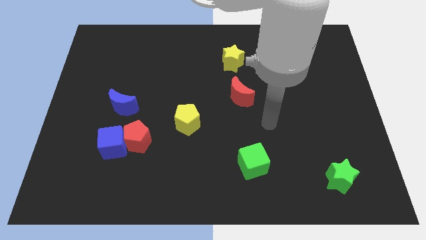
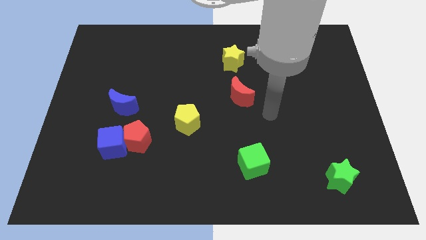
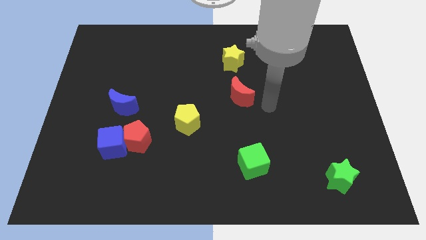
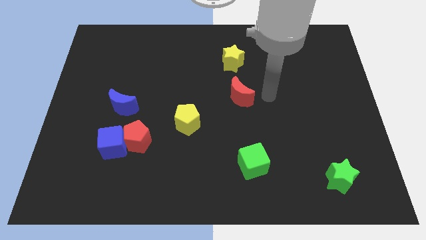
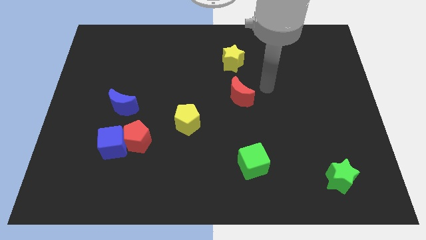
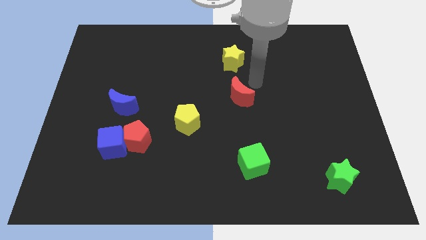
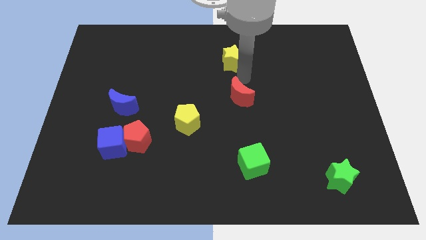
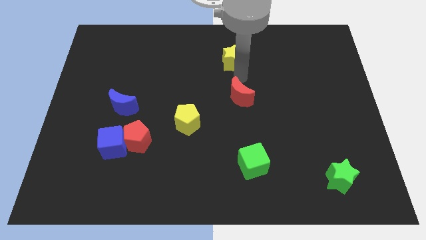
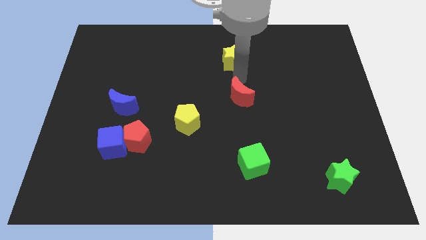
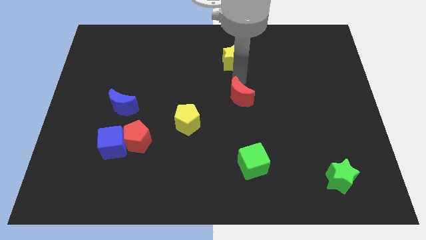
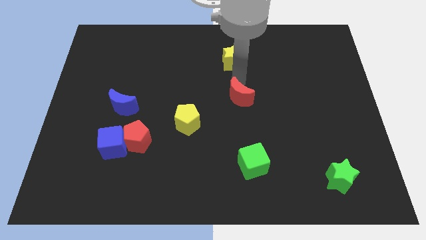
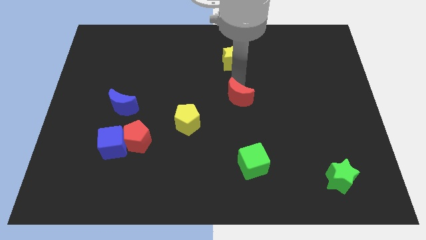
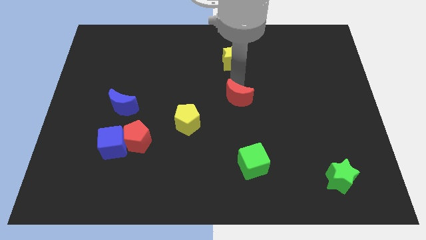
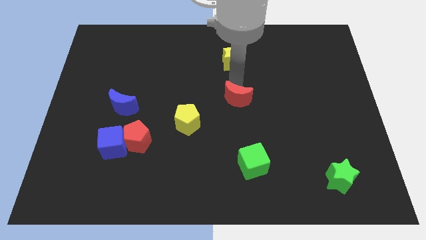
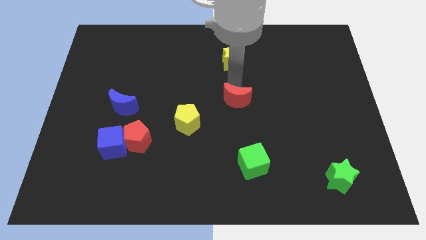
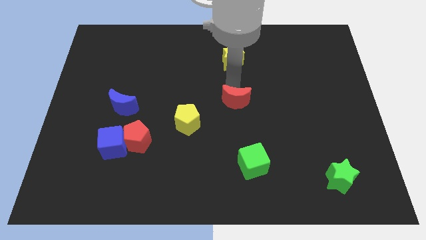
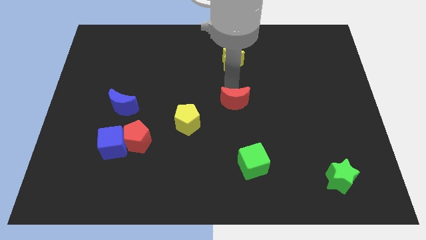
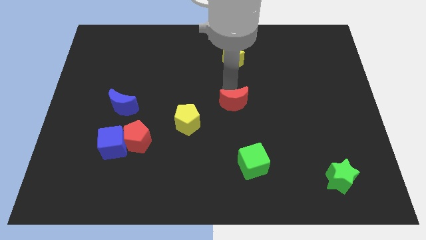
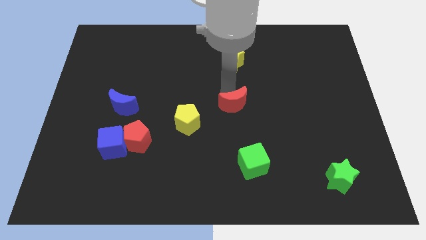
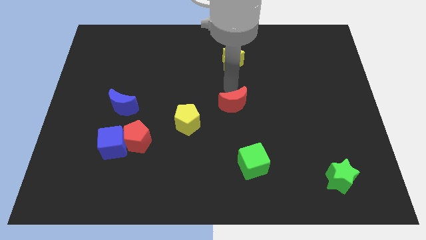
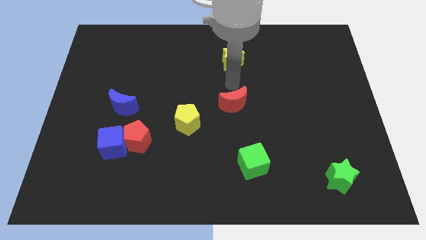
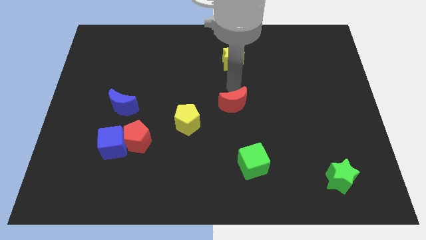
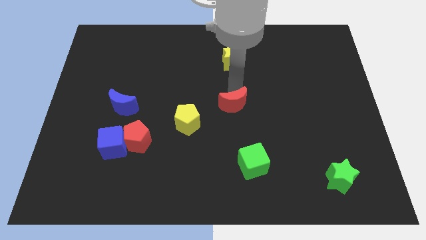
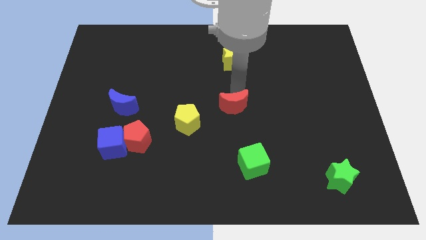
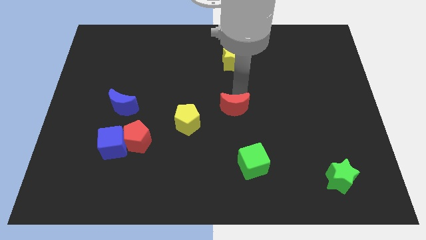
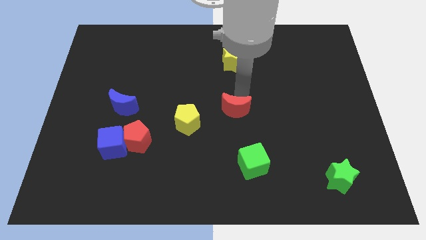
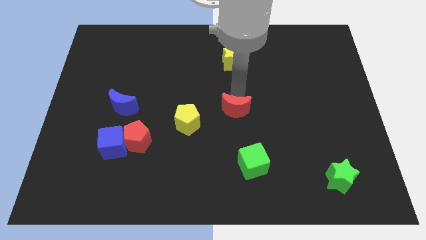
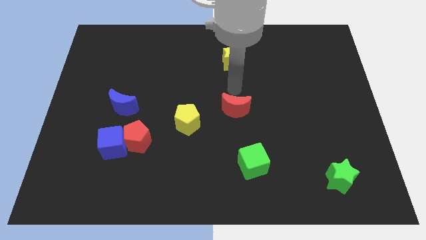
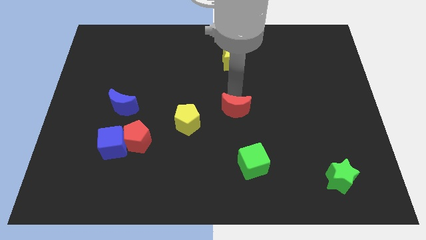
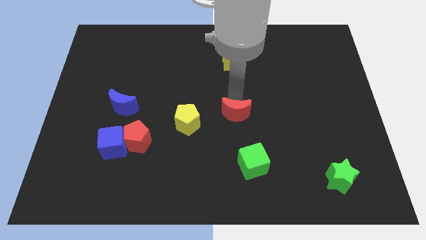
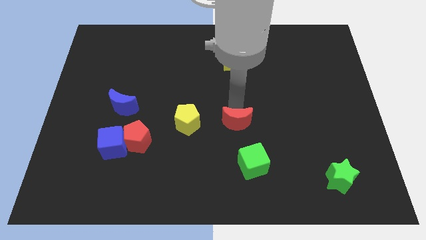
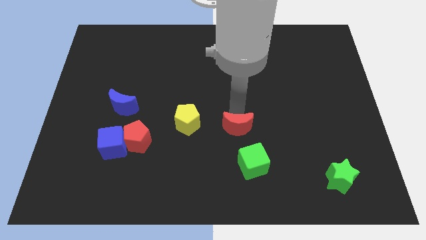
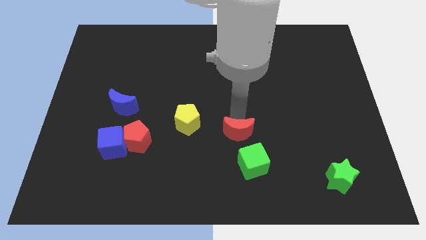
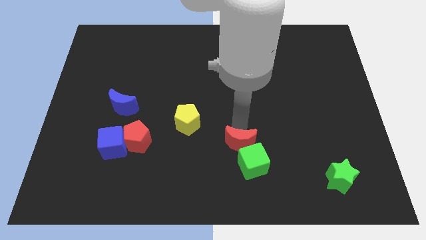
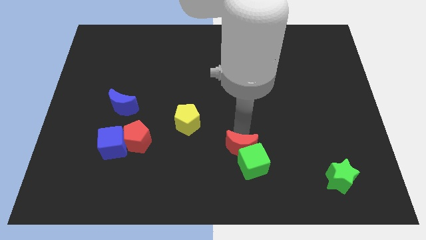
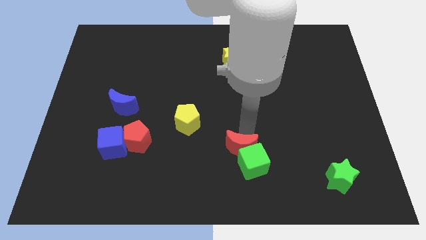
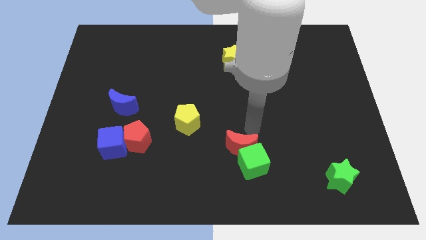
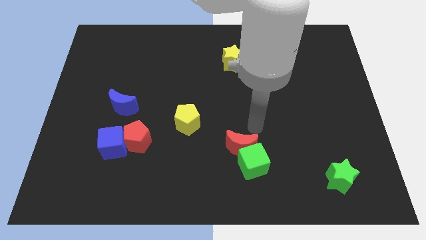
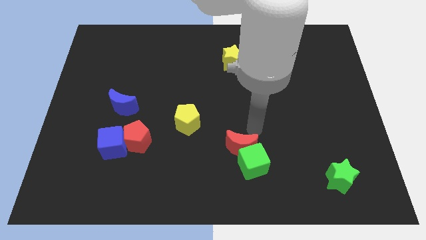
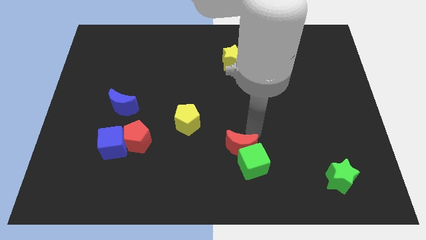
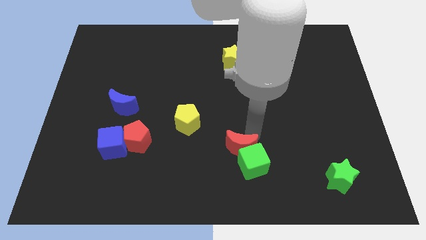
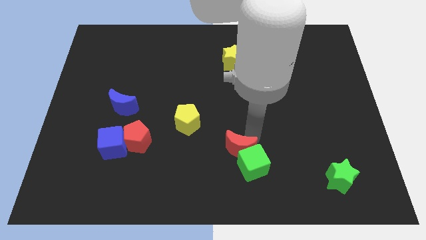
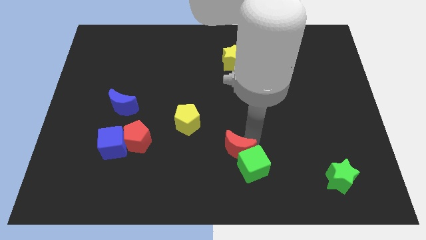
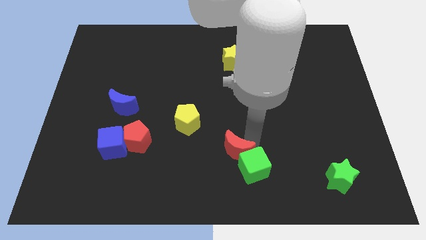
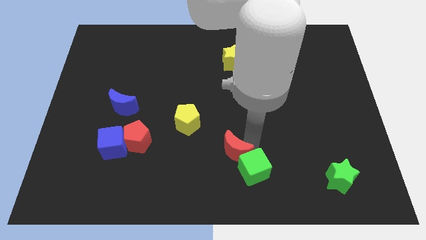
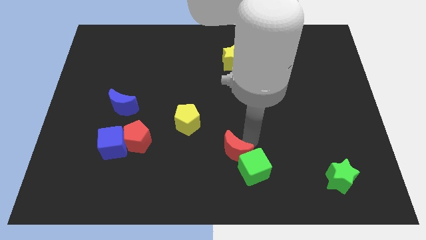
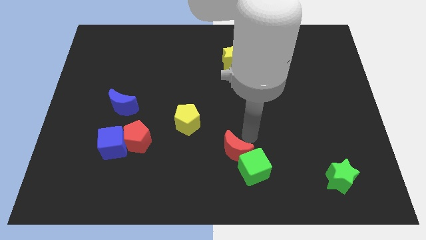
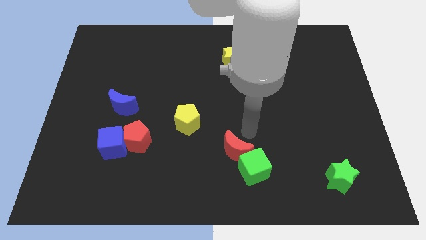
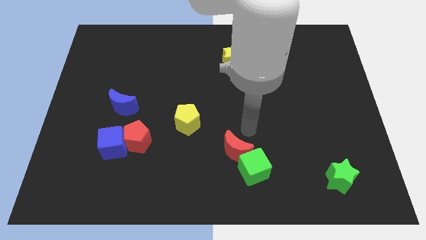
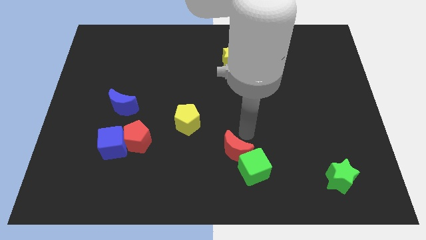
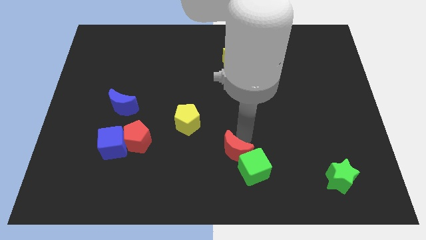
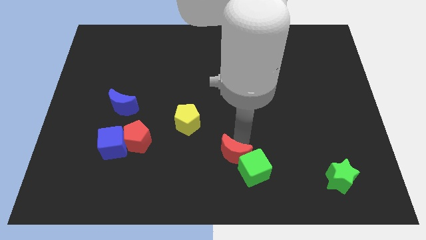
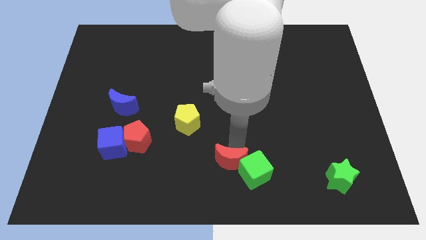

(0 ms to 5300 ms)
slide the red moon to the bottom

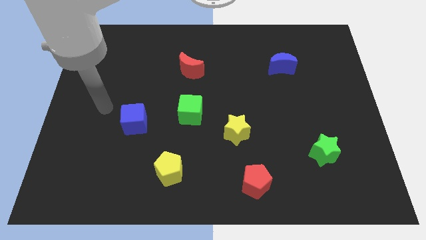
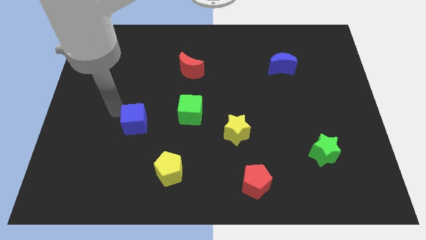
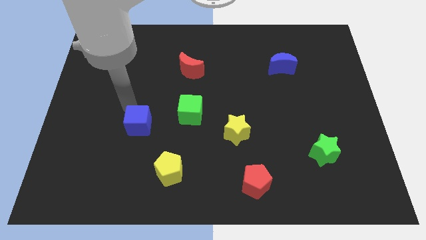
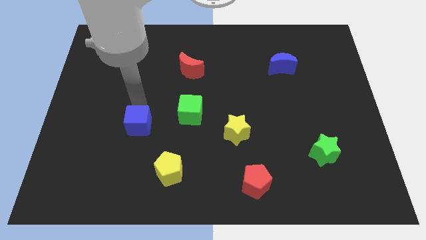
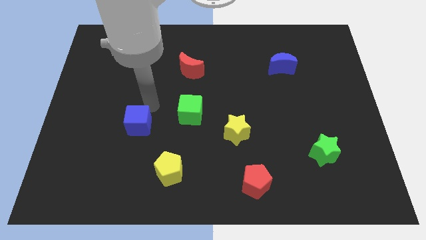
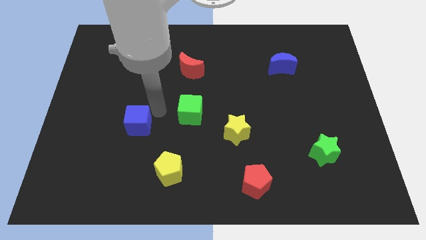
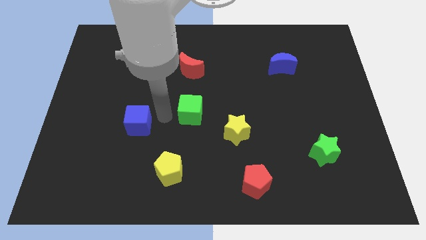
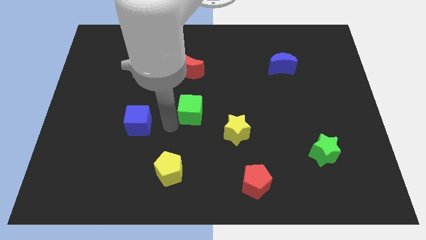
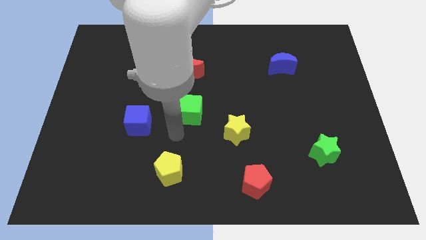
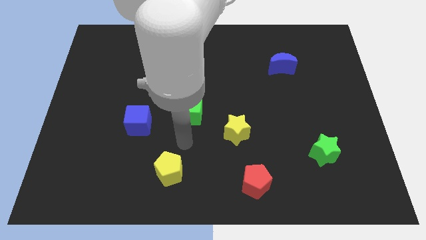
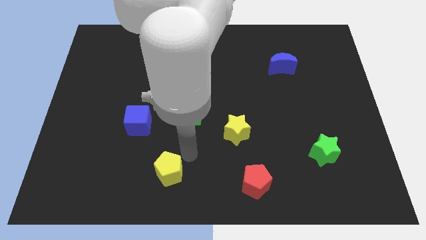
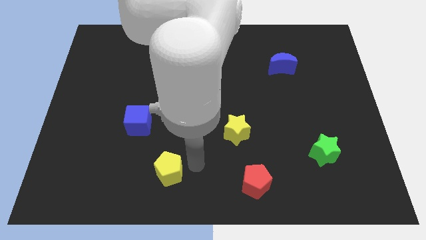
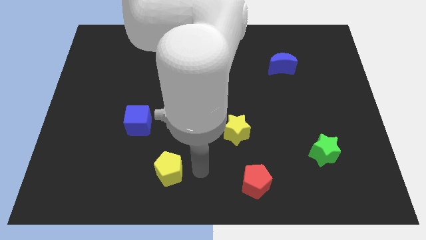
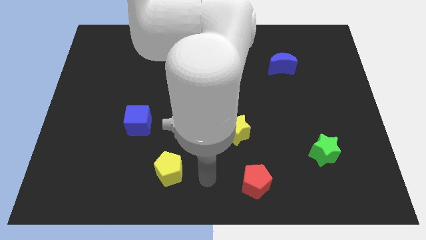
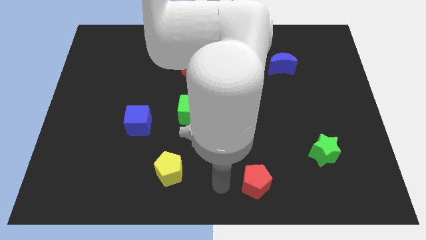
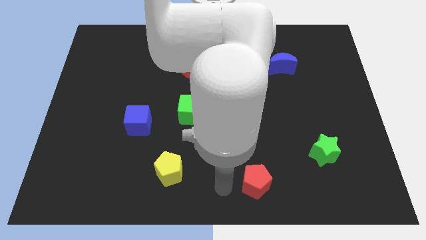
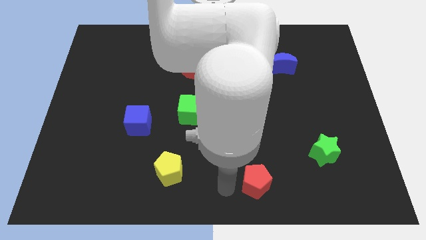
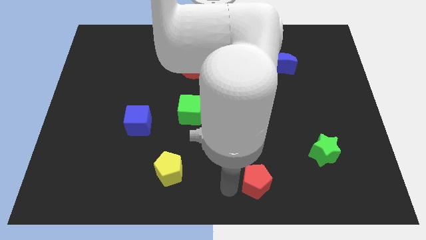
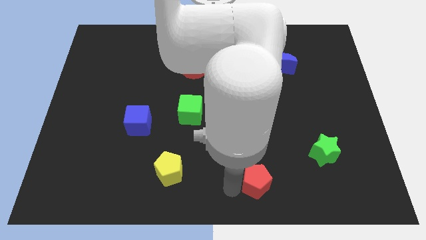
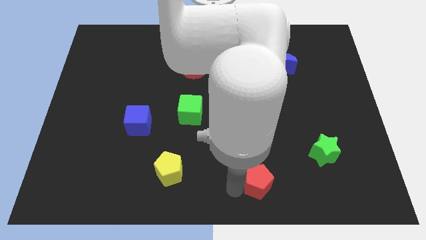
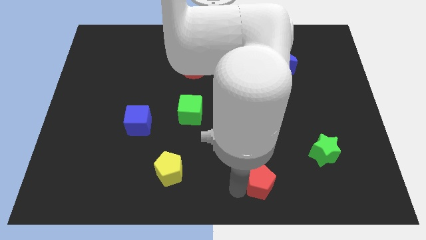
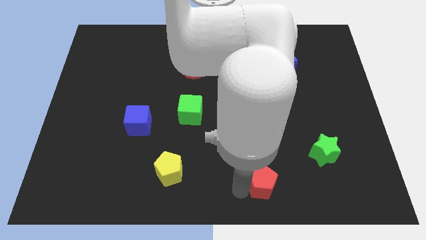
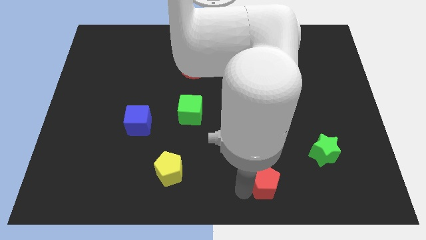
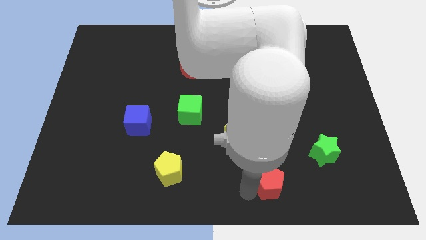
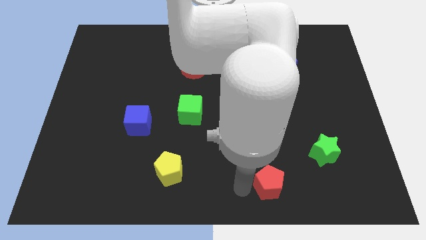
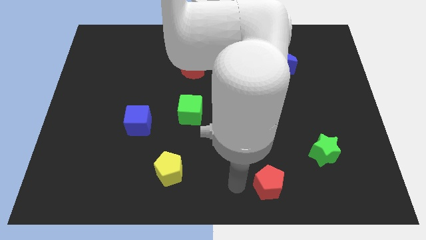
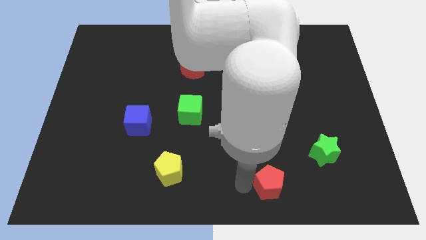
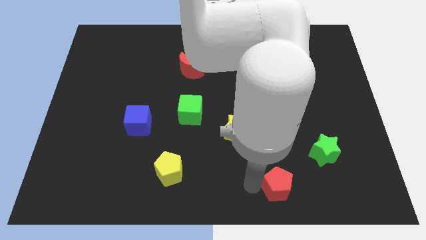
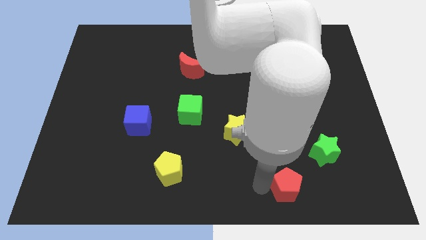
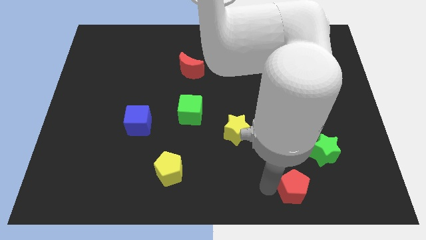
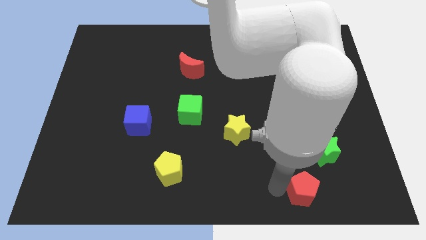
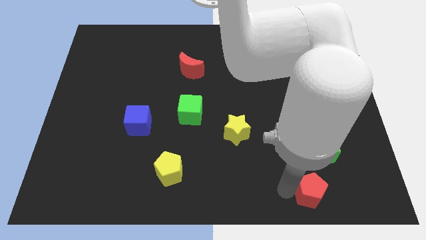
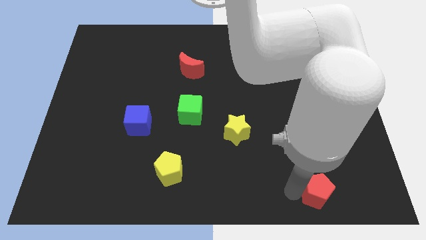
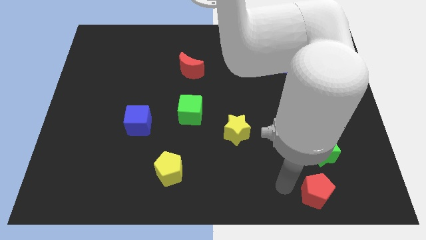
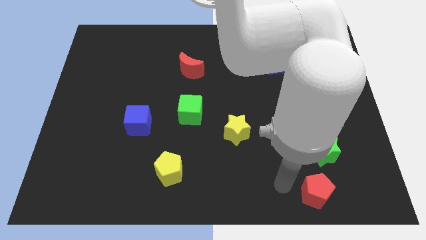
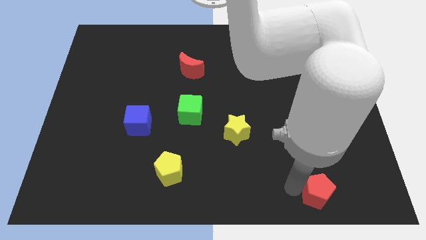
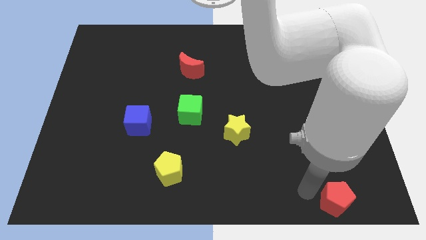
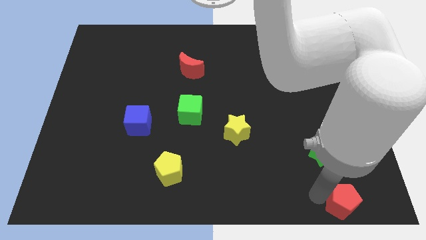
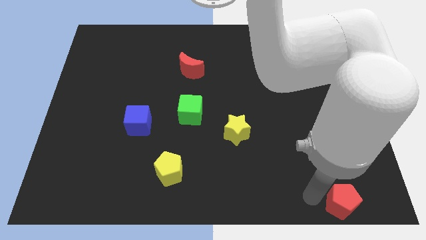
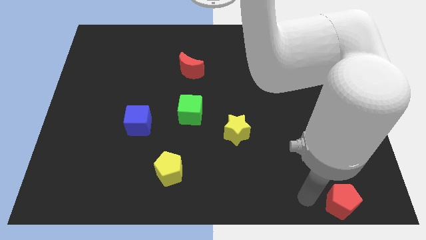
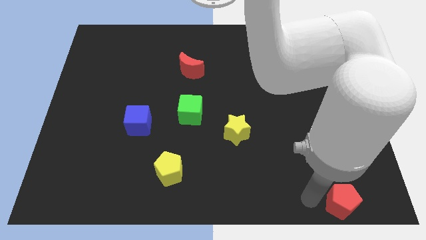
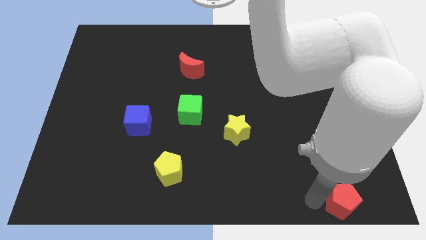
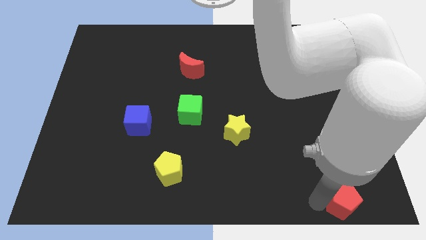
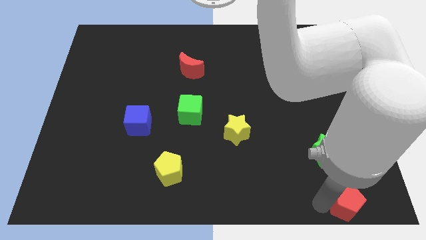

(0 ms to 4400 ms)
push the red pentagon to the bottom right
